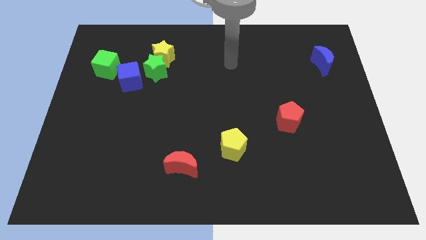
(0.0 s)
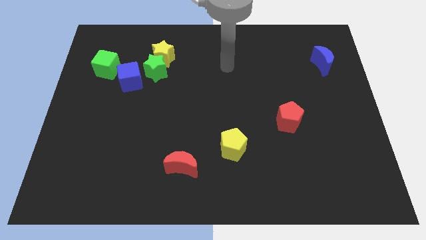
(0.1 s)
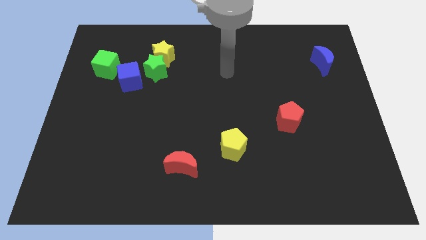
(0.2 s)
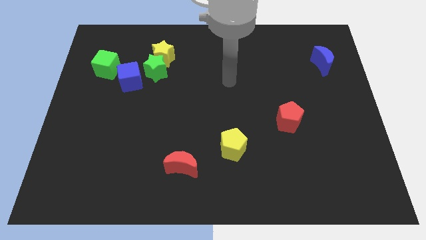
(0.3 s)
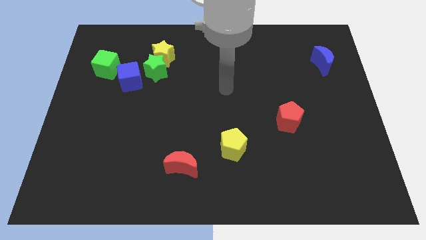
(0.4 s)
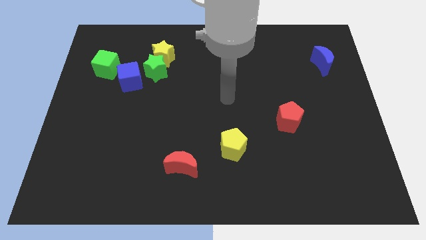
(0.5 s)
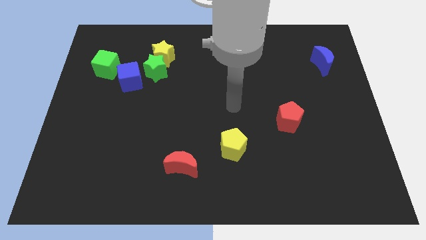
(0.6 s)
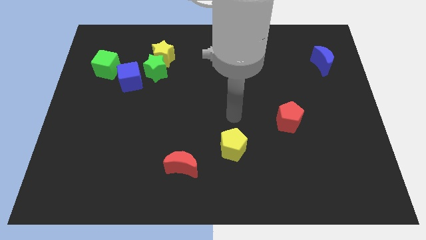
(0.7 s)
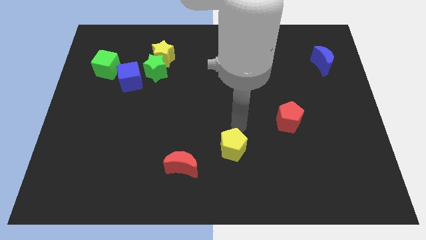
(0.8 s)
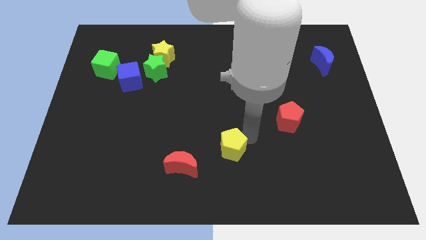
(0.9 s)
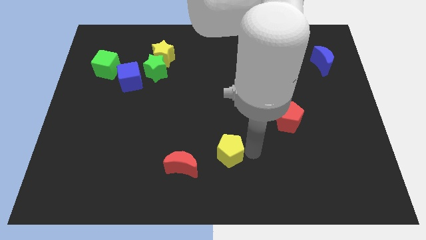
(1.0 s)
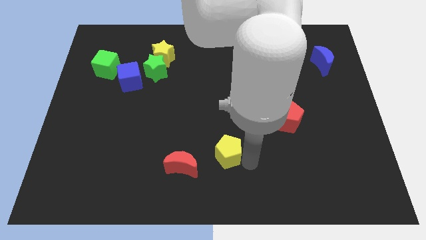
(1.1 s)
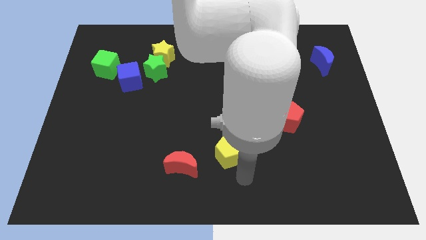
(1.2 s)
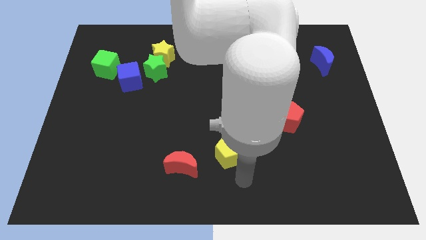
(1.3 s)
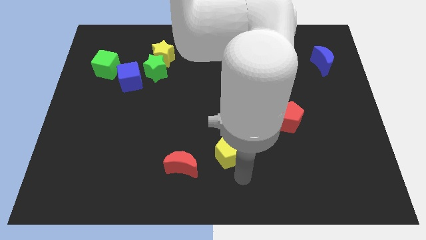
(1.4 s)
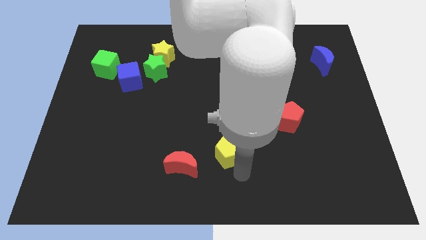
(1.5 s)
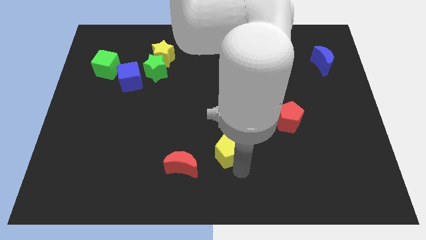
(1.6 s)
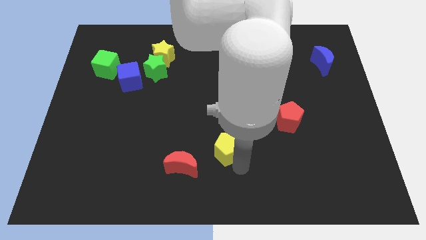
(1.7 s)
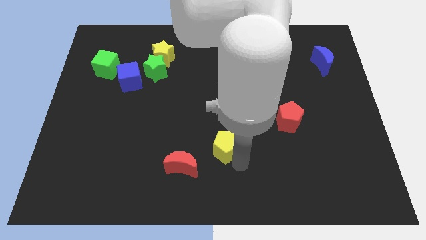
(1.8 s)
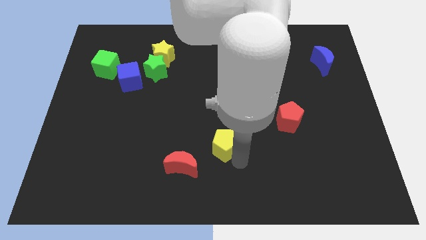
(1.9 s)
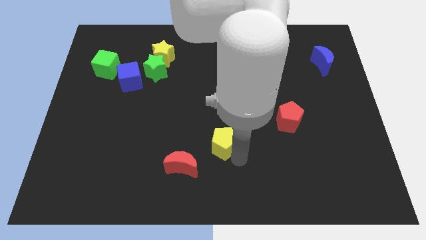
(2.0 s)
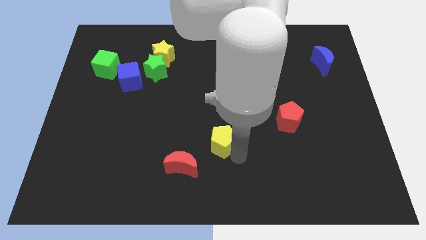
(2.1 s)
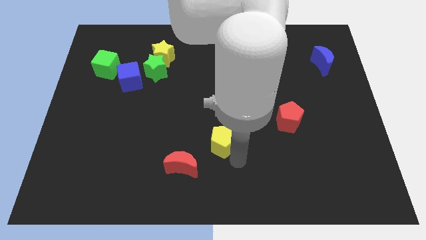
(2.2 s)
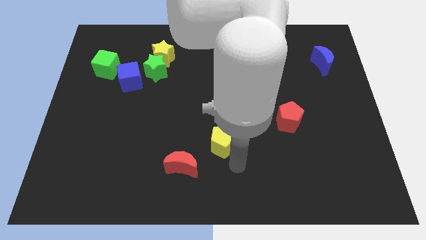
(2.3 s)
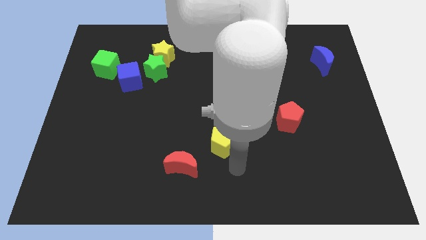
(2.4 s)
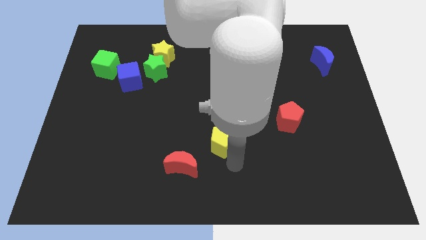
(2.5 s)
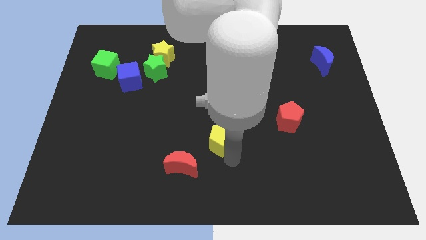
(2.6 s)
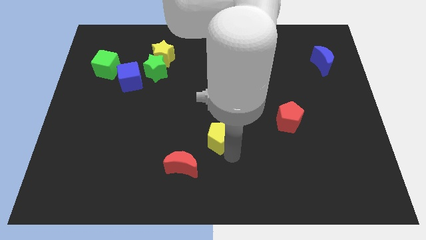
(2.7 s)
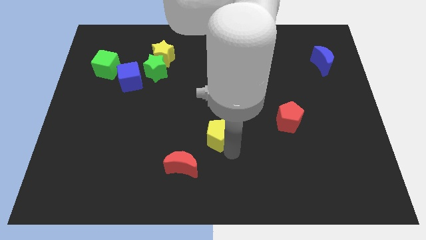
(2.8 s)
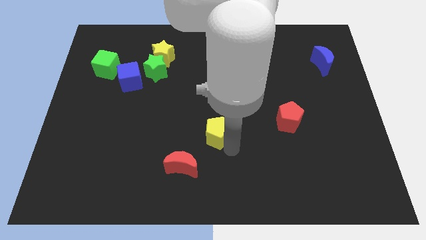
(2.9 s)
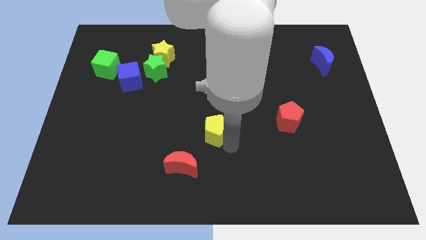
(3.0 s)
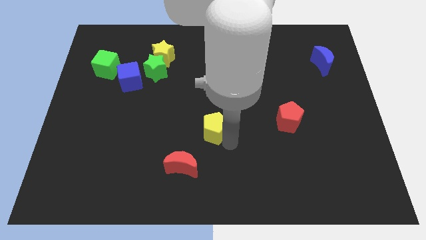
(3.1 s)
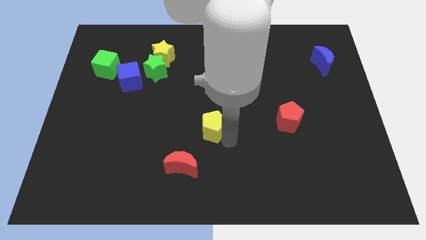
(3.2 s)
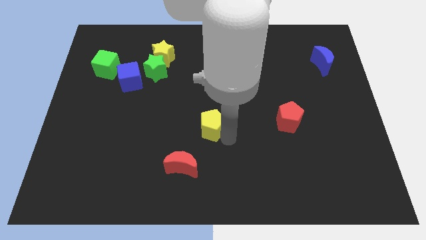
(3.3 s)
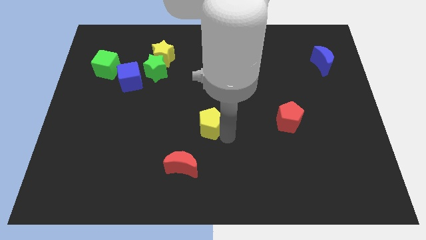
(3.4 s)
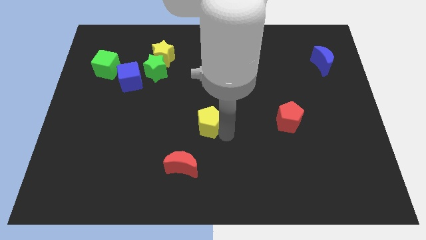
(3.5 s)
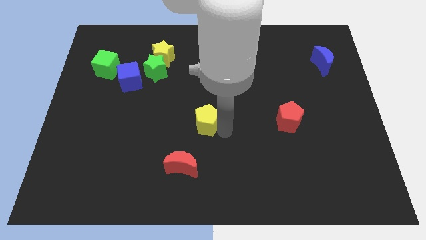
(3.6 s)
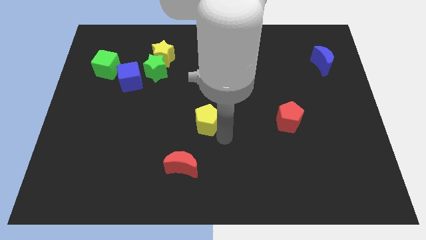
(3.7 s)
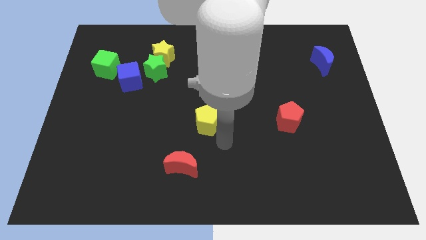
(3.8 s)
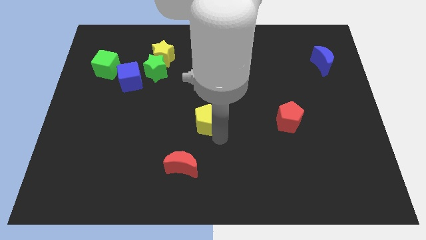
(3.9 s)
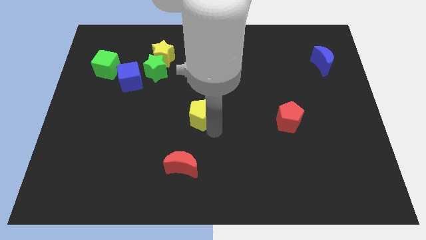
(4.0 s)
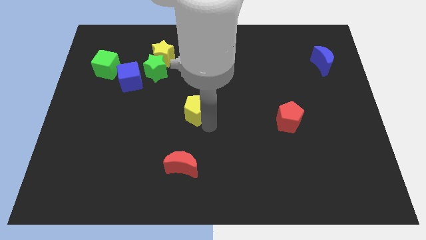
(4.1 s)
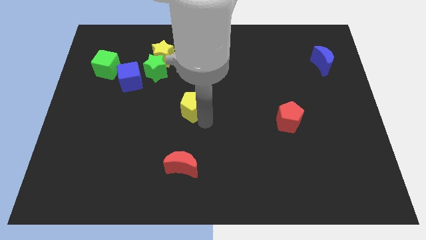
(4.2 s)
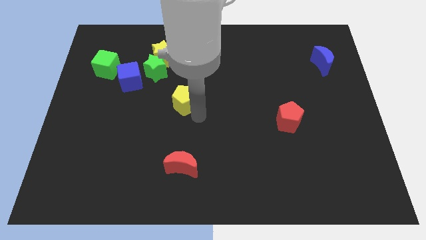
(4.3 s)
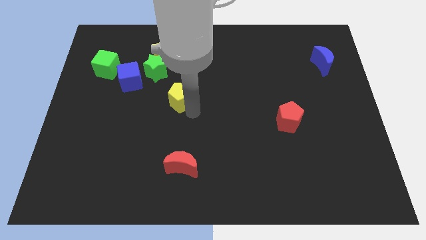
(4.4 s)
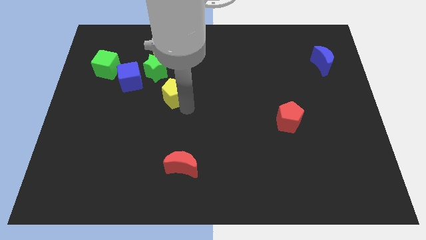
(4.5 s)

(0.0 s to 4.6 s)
move the yellow pentagon upwards and left

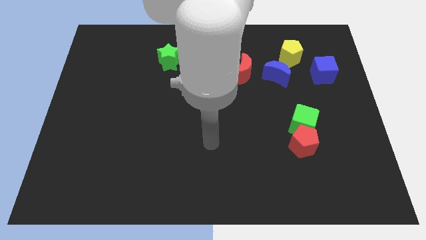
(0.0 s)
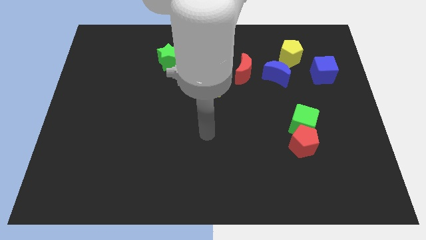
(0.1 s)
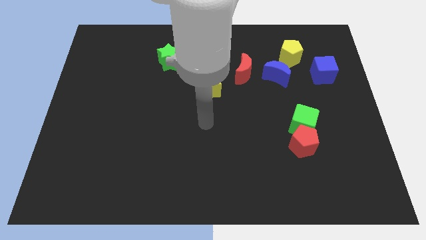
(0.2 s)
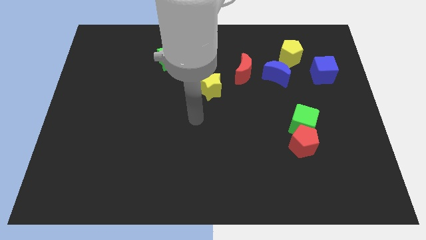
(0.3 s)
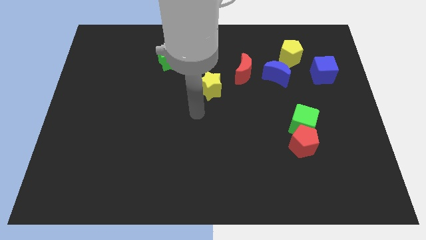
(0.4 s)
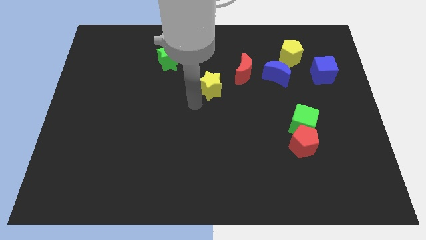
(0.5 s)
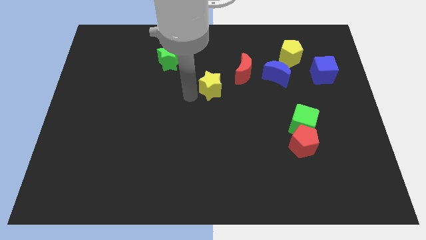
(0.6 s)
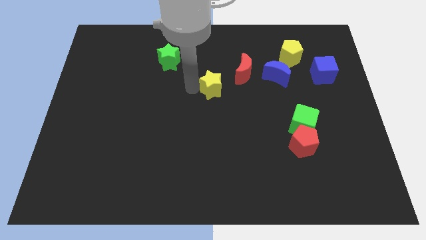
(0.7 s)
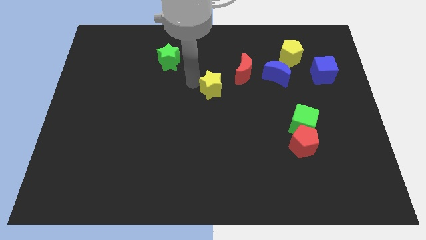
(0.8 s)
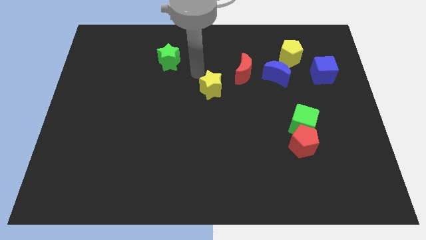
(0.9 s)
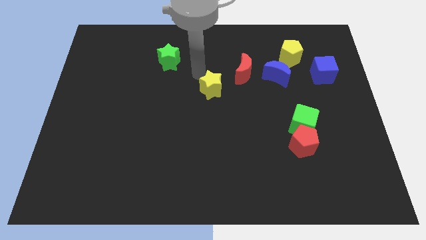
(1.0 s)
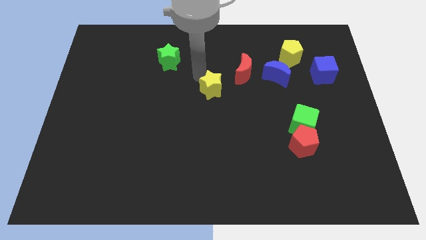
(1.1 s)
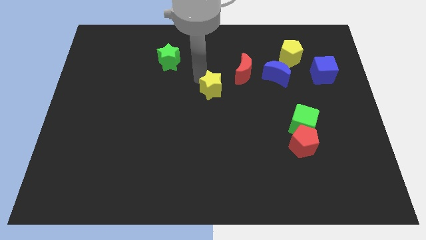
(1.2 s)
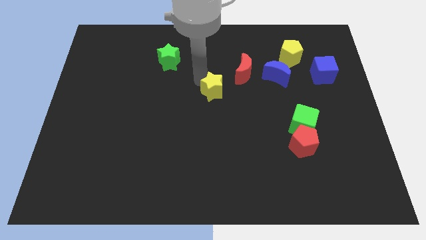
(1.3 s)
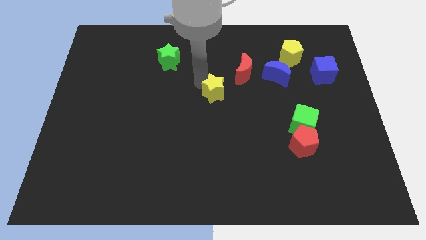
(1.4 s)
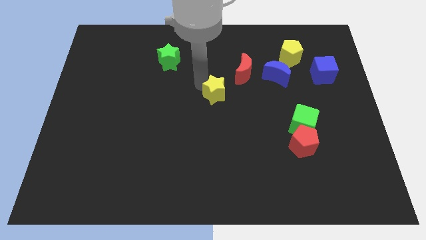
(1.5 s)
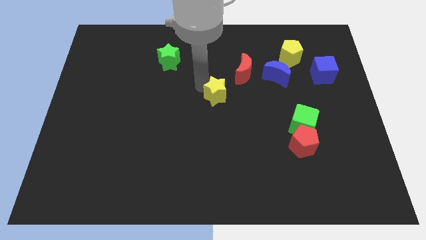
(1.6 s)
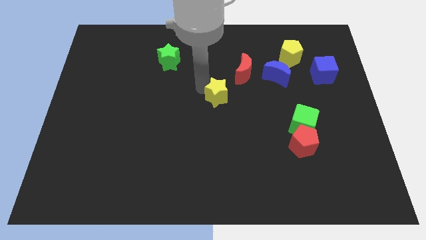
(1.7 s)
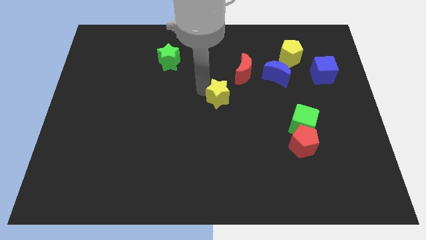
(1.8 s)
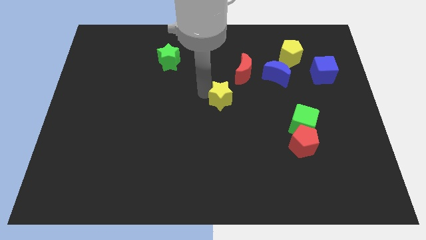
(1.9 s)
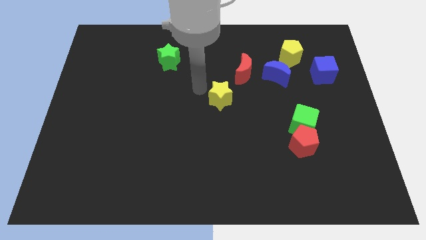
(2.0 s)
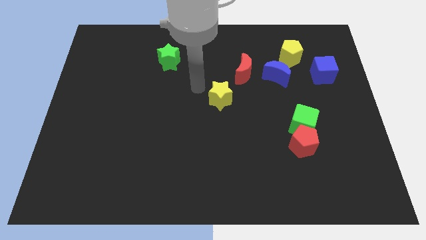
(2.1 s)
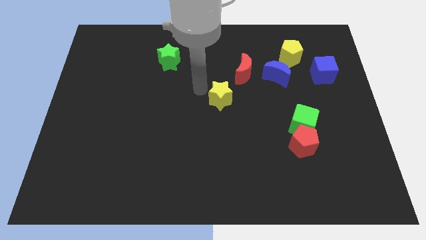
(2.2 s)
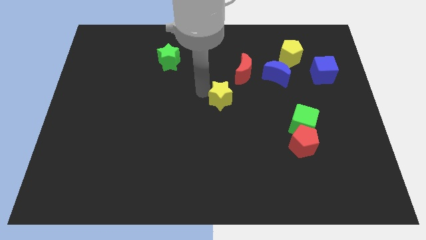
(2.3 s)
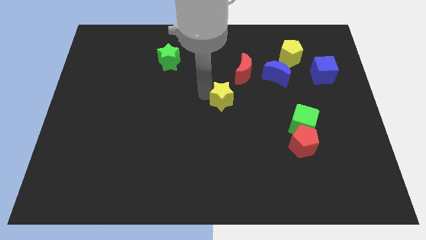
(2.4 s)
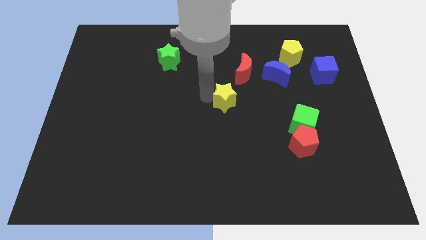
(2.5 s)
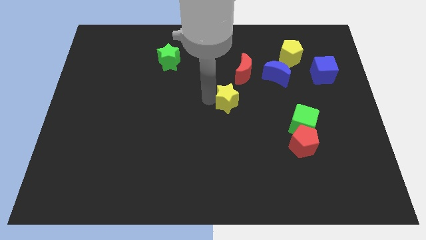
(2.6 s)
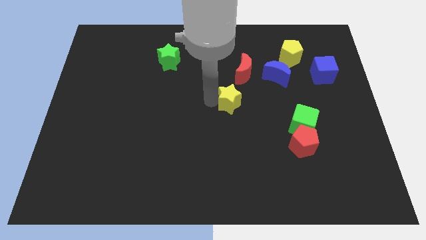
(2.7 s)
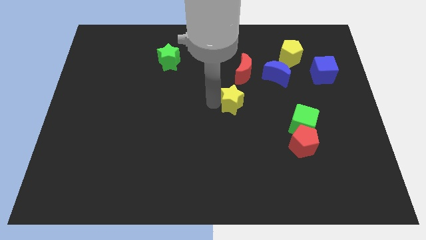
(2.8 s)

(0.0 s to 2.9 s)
slide the yellow star downwards and then to the right slightly

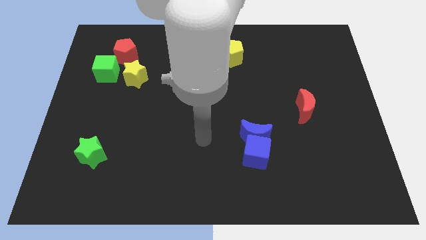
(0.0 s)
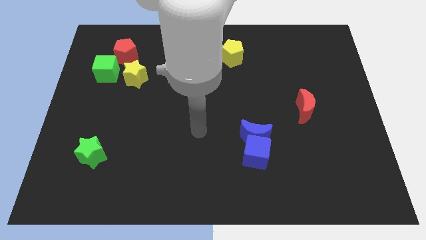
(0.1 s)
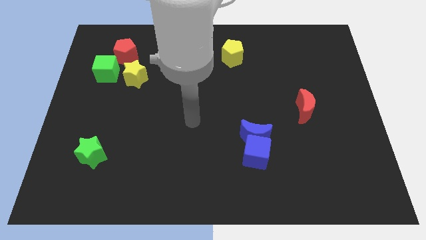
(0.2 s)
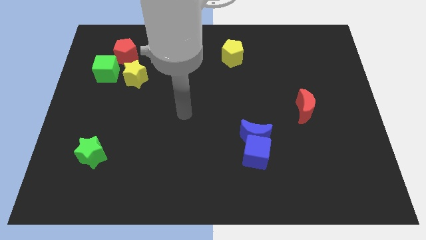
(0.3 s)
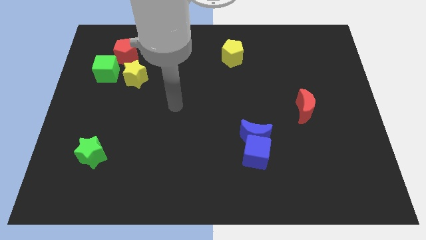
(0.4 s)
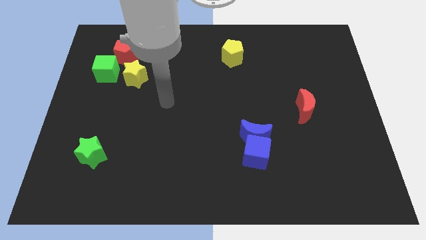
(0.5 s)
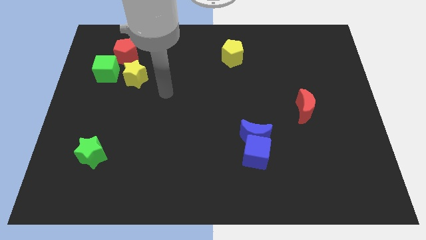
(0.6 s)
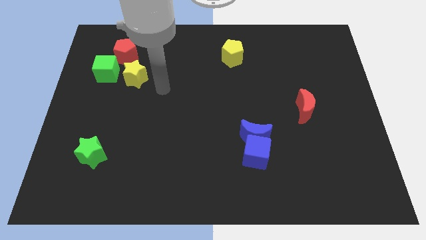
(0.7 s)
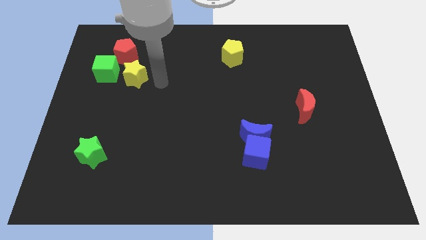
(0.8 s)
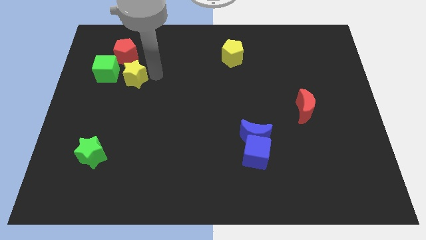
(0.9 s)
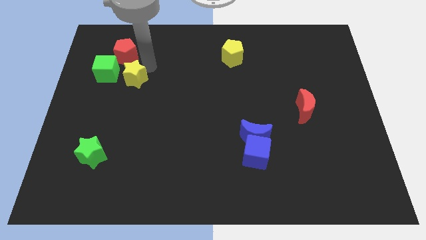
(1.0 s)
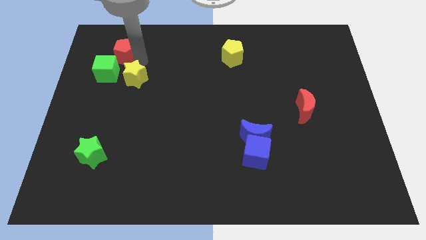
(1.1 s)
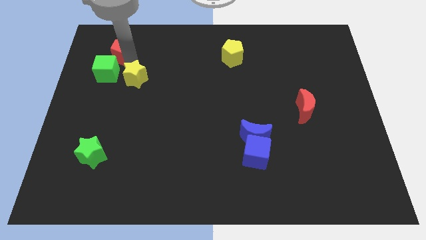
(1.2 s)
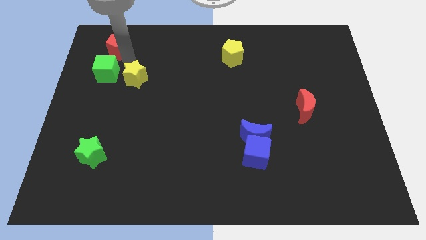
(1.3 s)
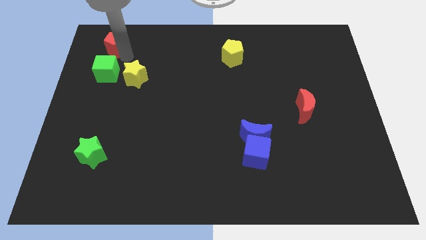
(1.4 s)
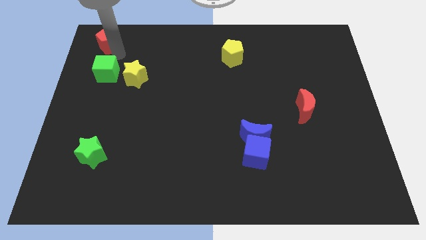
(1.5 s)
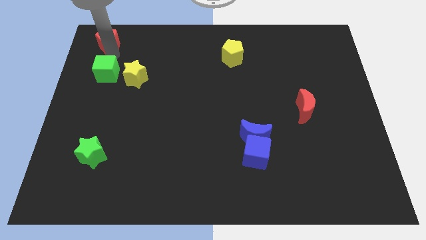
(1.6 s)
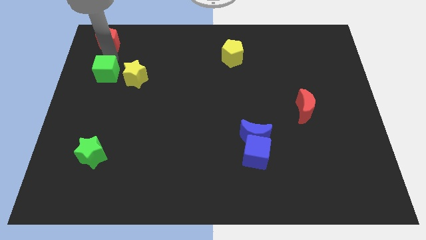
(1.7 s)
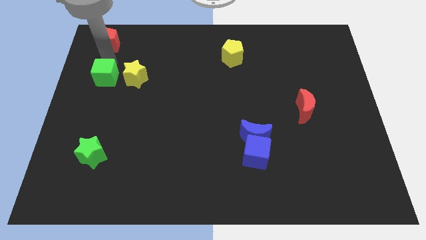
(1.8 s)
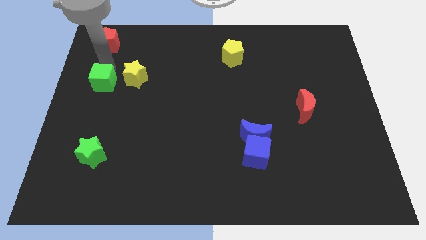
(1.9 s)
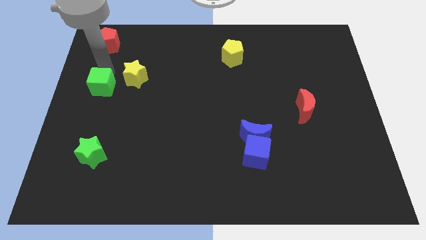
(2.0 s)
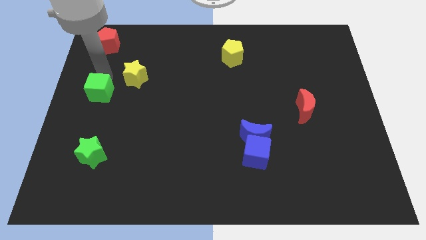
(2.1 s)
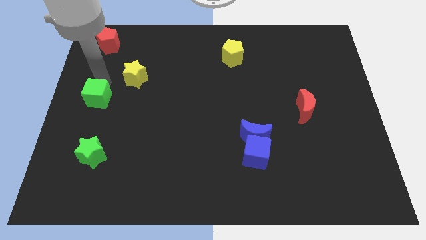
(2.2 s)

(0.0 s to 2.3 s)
slightly slide the green cube downwards
